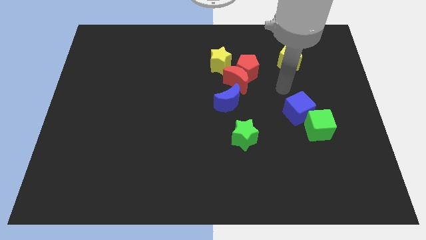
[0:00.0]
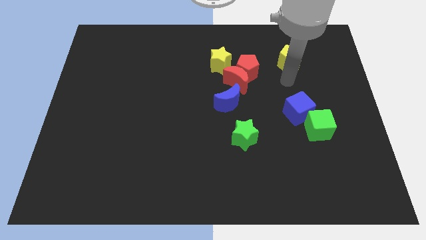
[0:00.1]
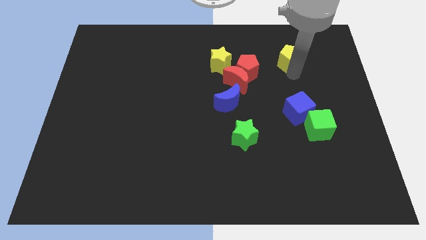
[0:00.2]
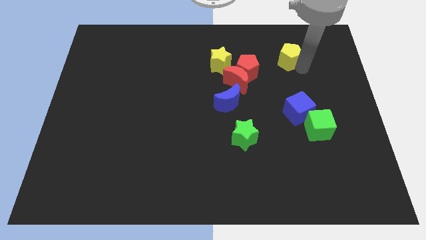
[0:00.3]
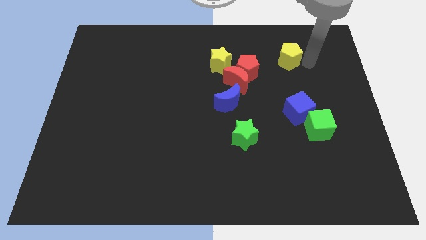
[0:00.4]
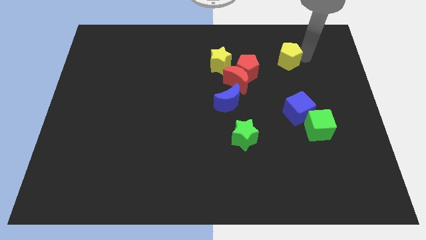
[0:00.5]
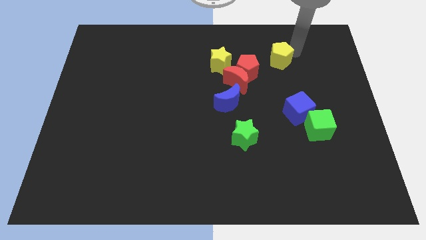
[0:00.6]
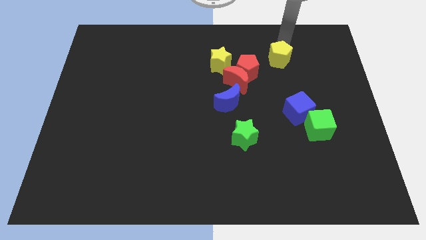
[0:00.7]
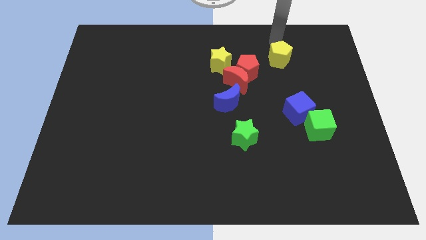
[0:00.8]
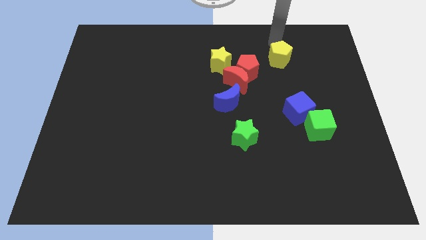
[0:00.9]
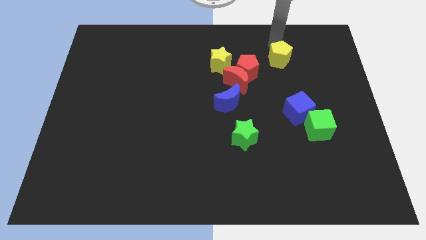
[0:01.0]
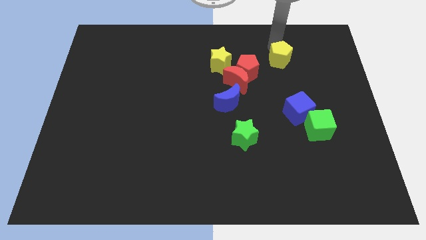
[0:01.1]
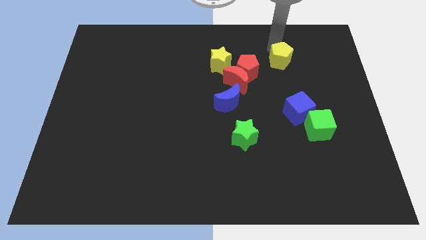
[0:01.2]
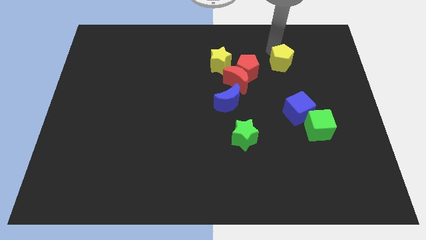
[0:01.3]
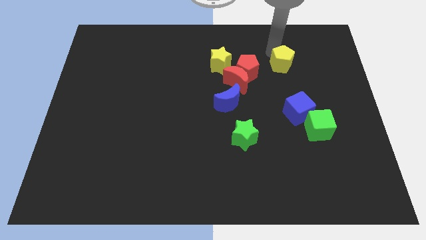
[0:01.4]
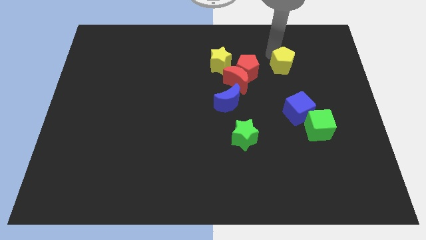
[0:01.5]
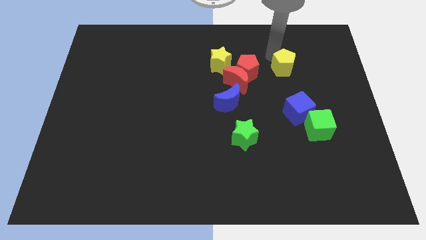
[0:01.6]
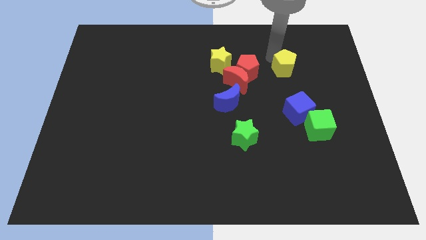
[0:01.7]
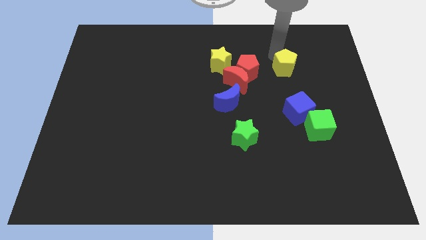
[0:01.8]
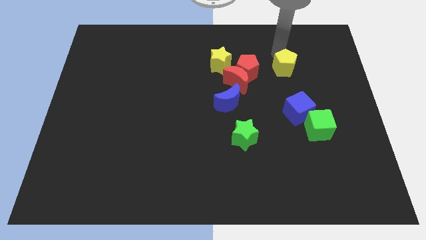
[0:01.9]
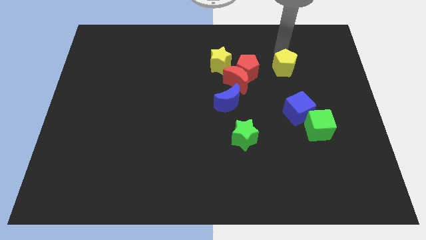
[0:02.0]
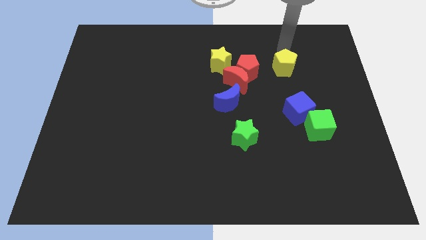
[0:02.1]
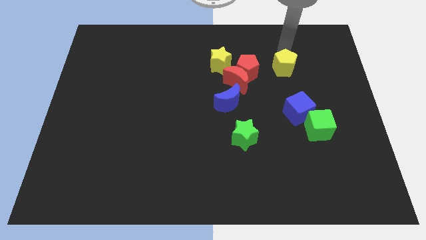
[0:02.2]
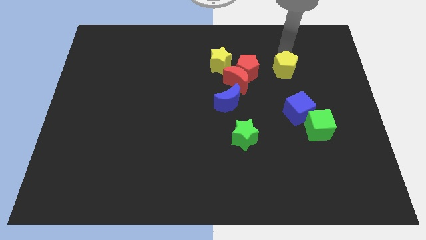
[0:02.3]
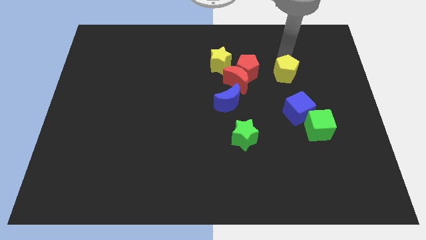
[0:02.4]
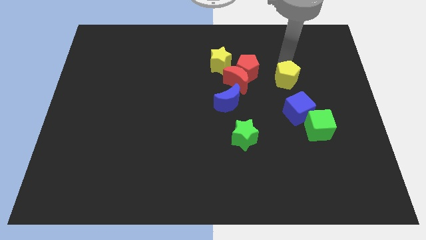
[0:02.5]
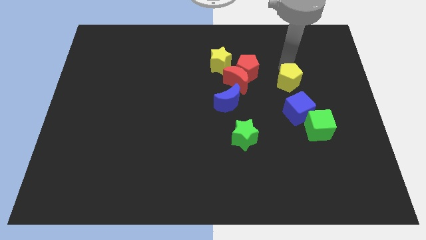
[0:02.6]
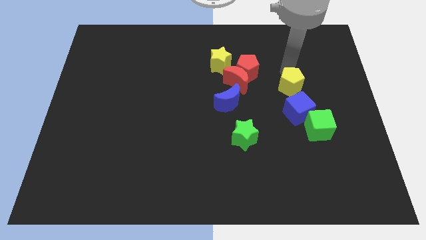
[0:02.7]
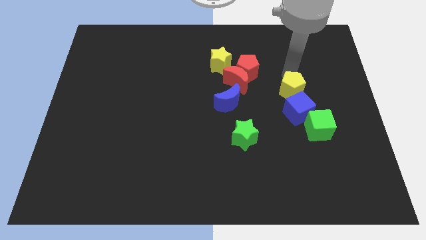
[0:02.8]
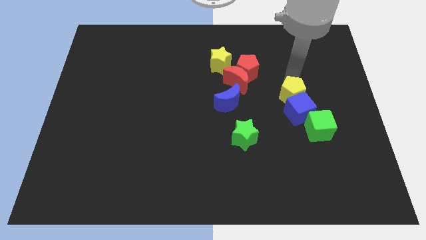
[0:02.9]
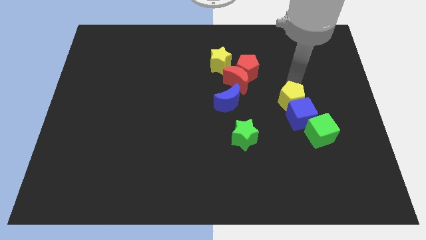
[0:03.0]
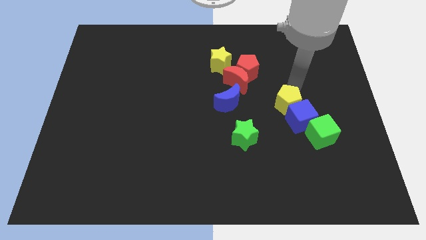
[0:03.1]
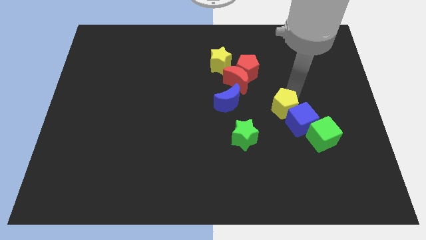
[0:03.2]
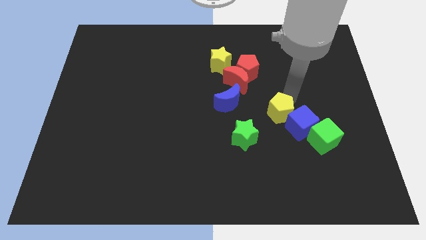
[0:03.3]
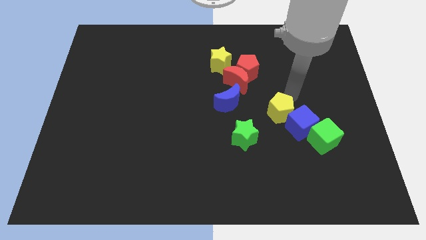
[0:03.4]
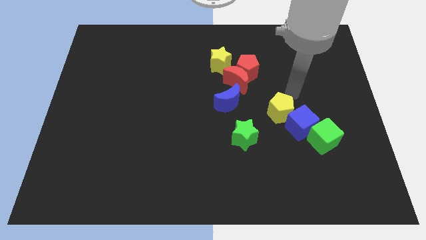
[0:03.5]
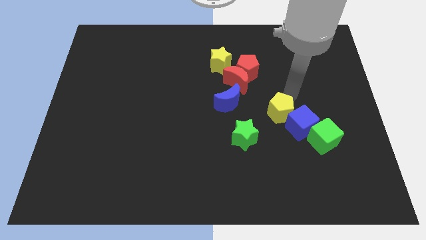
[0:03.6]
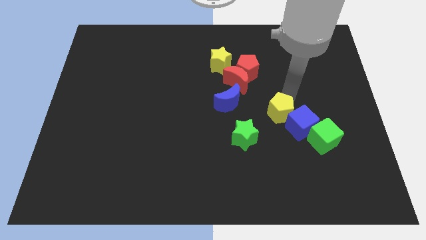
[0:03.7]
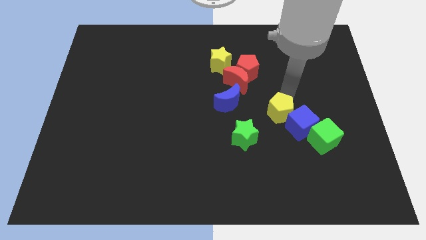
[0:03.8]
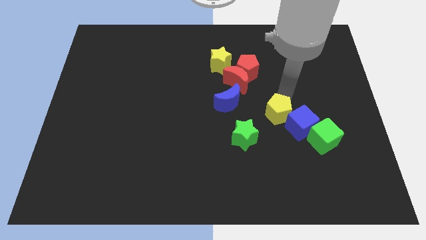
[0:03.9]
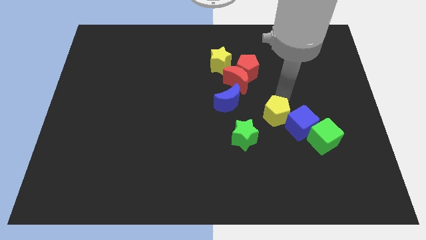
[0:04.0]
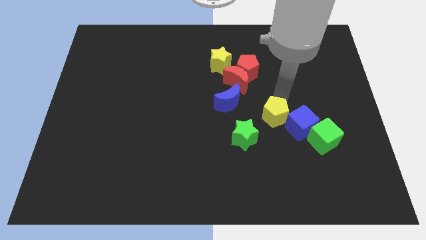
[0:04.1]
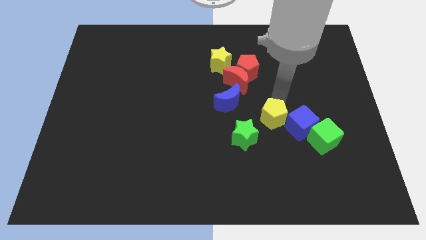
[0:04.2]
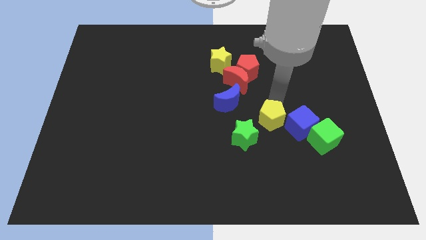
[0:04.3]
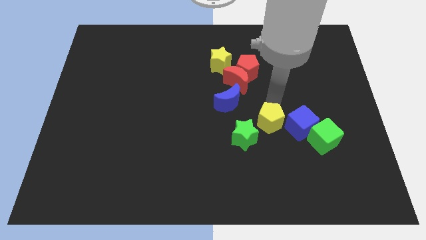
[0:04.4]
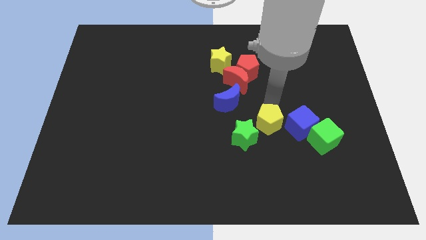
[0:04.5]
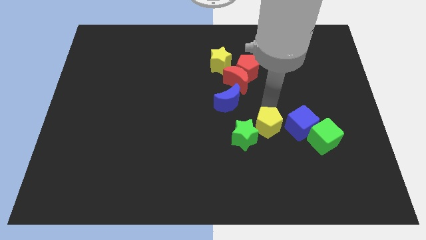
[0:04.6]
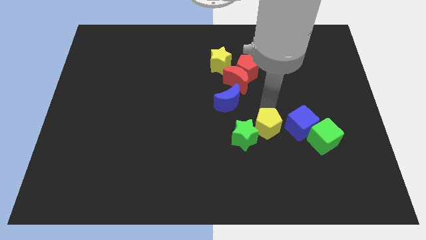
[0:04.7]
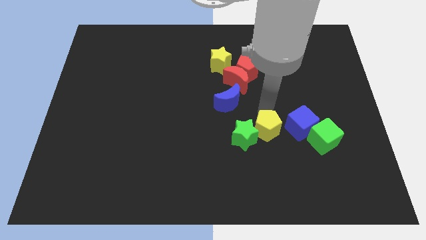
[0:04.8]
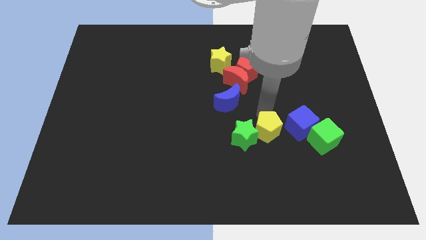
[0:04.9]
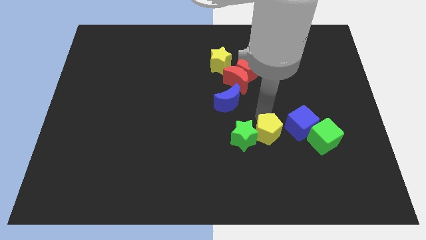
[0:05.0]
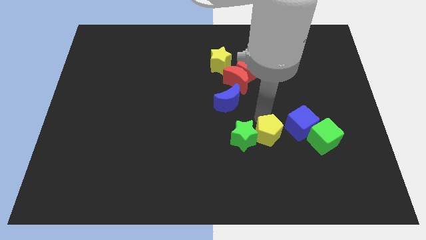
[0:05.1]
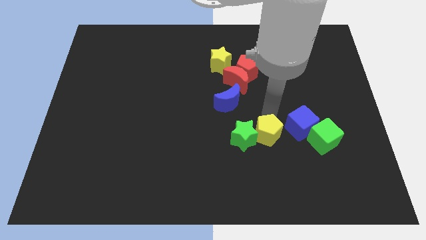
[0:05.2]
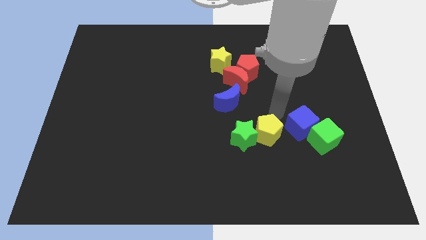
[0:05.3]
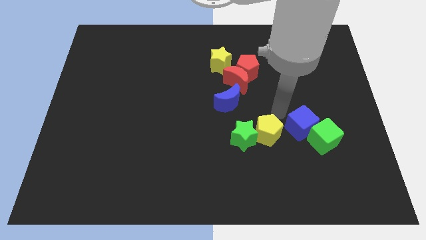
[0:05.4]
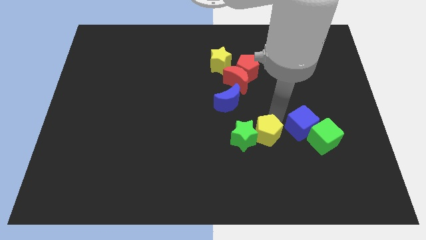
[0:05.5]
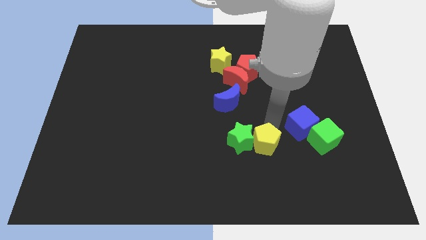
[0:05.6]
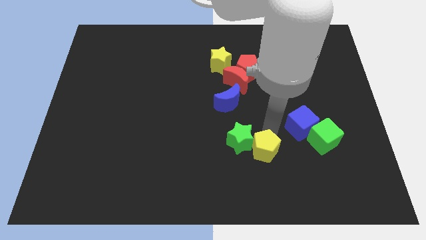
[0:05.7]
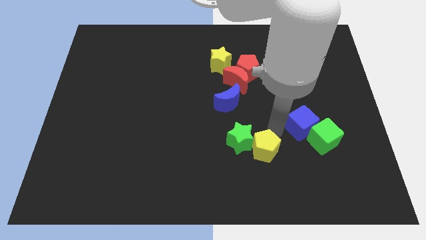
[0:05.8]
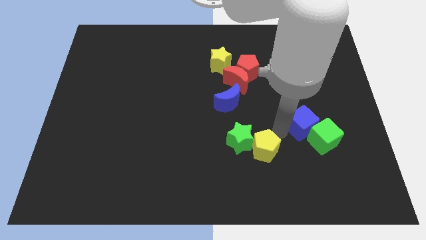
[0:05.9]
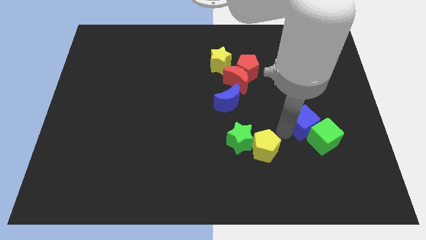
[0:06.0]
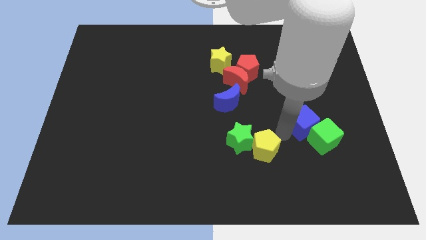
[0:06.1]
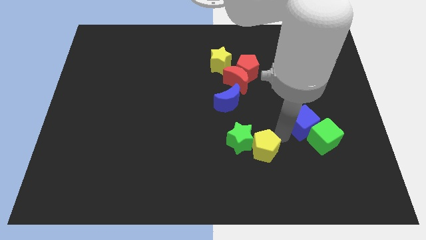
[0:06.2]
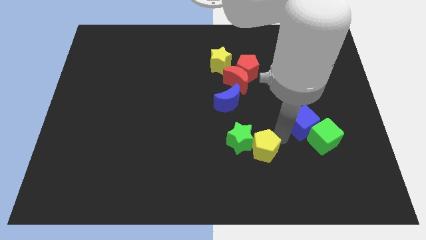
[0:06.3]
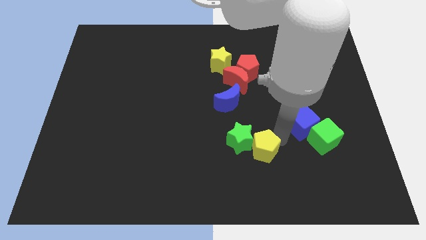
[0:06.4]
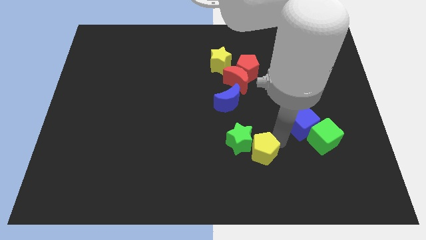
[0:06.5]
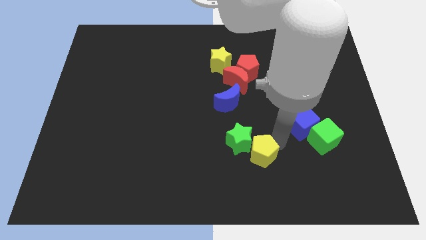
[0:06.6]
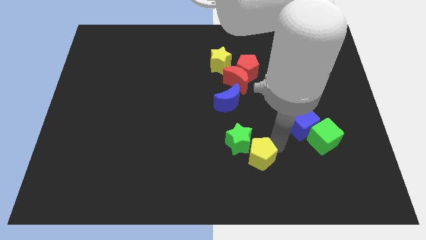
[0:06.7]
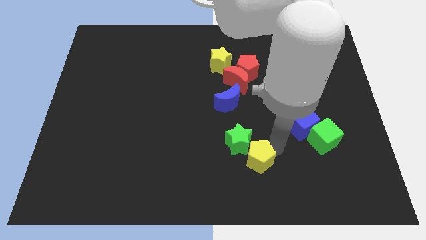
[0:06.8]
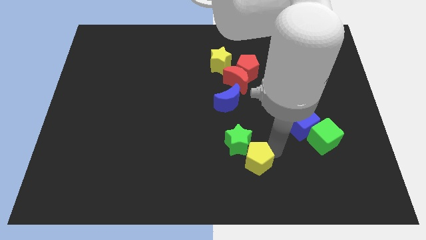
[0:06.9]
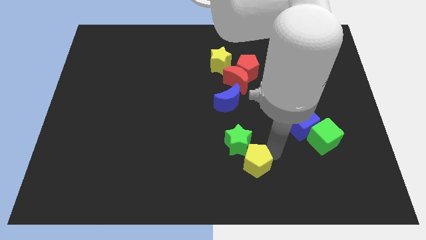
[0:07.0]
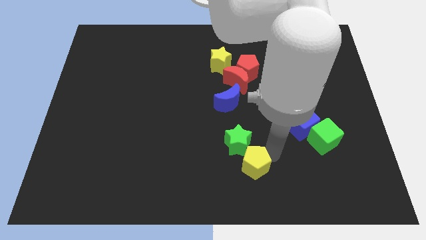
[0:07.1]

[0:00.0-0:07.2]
push the yellow pentagon to the bottom side
